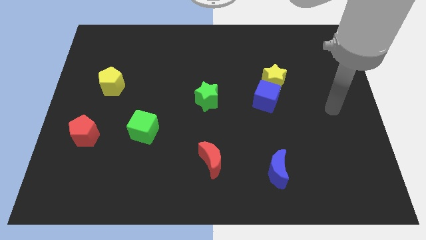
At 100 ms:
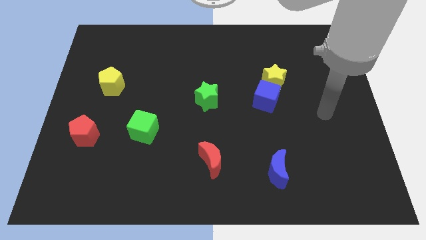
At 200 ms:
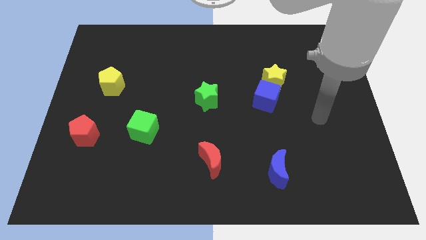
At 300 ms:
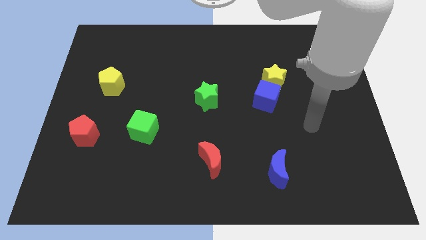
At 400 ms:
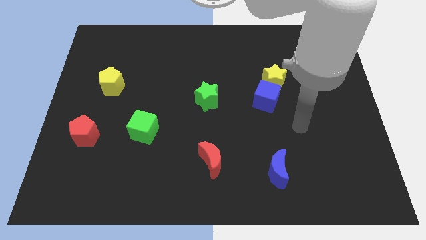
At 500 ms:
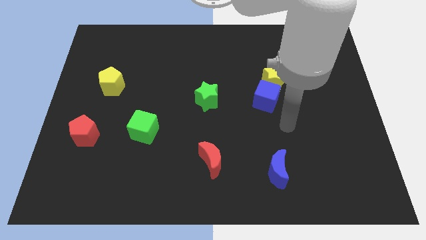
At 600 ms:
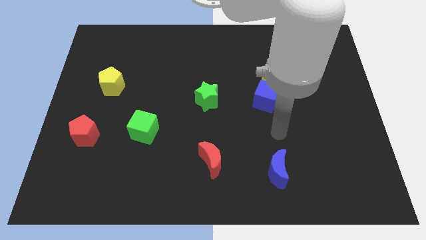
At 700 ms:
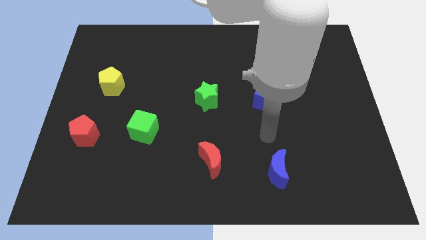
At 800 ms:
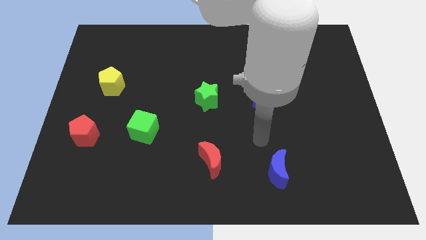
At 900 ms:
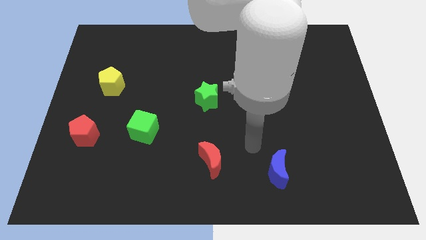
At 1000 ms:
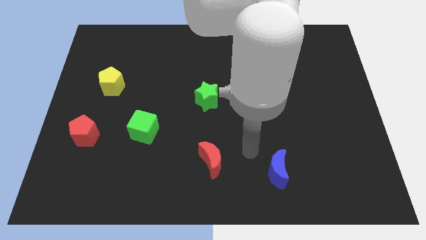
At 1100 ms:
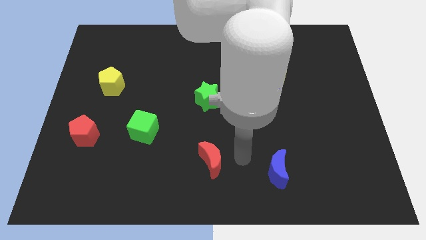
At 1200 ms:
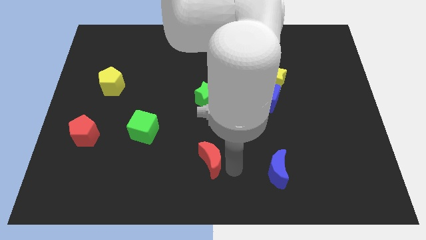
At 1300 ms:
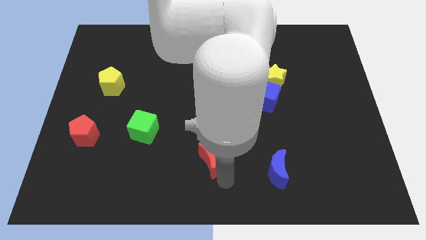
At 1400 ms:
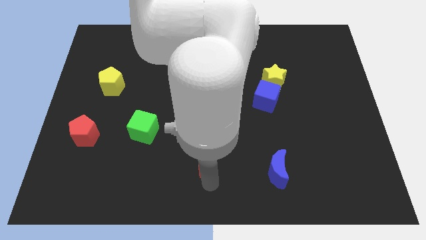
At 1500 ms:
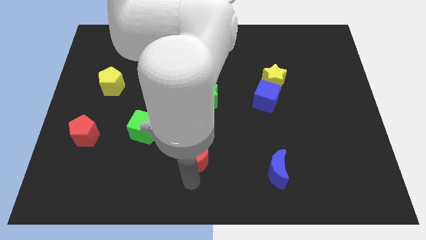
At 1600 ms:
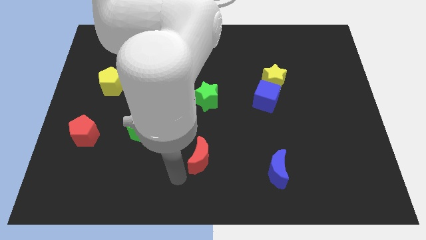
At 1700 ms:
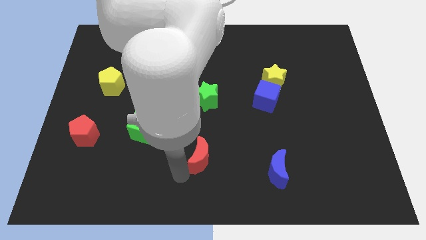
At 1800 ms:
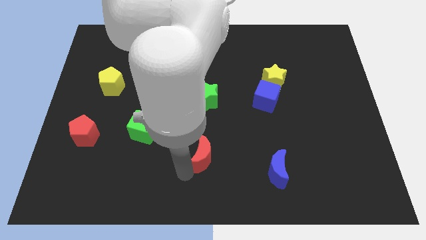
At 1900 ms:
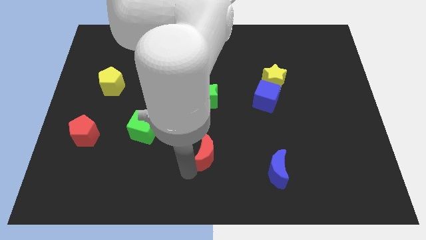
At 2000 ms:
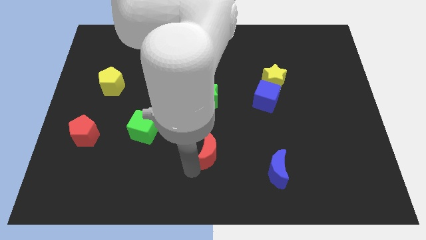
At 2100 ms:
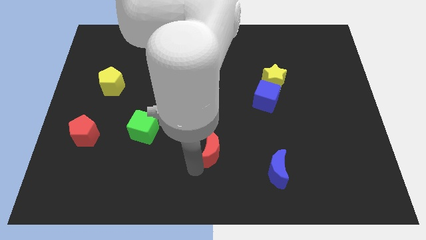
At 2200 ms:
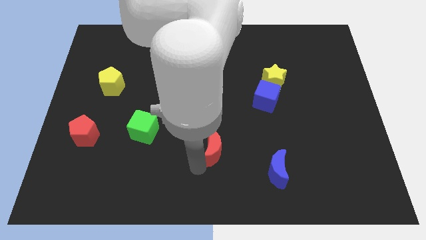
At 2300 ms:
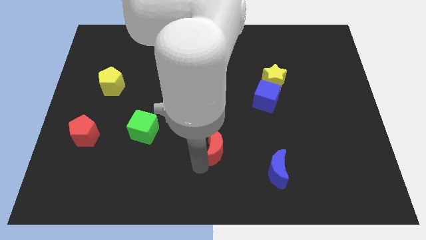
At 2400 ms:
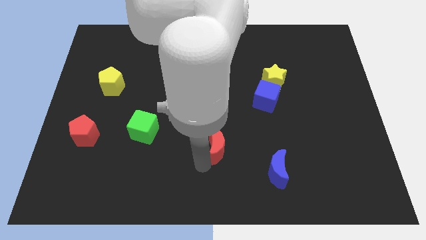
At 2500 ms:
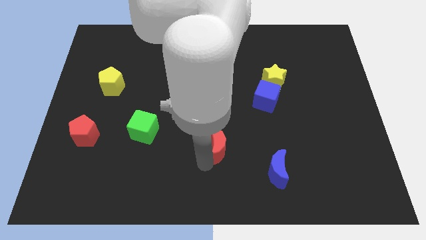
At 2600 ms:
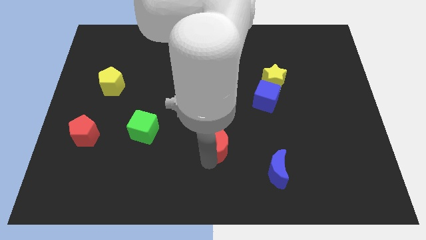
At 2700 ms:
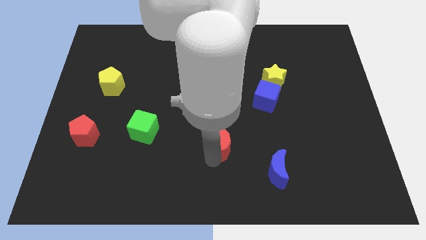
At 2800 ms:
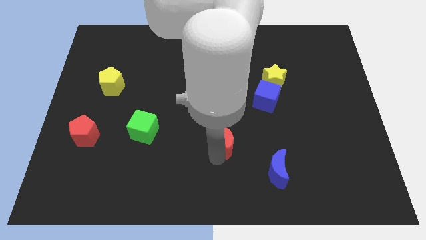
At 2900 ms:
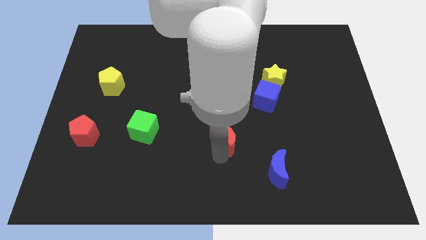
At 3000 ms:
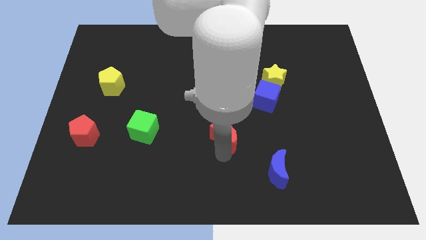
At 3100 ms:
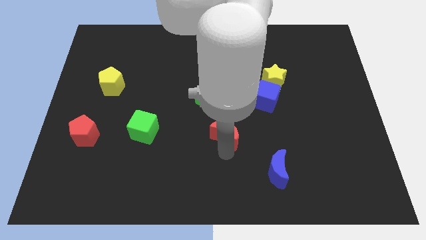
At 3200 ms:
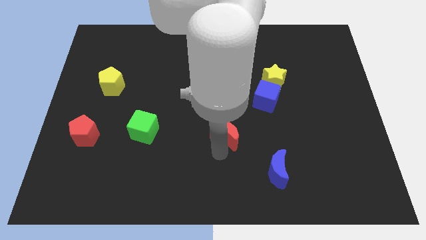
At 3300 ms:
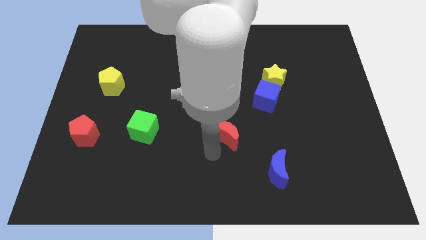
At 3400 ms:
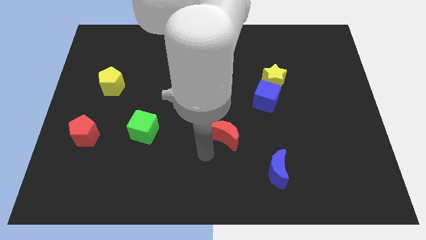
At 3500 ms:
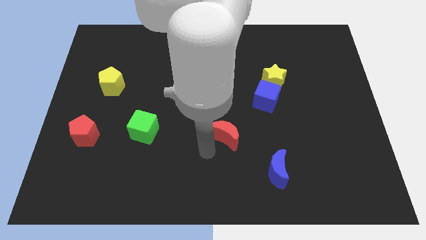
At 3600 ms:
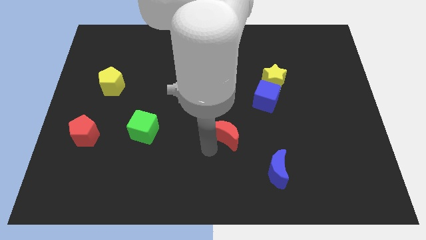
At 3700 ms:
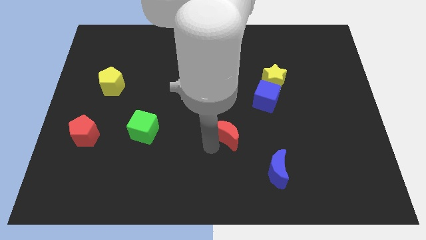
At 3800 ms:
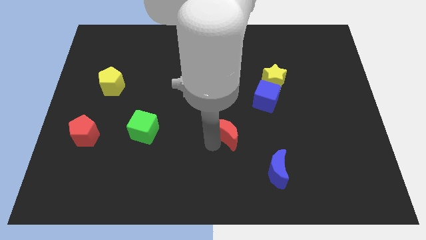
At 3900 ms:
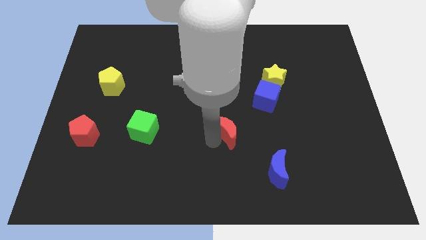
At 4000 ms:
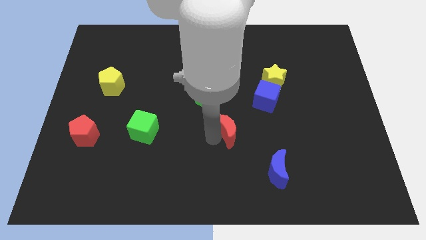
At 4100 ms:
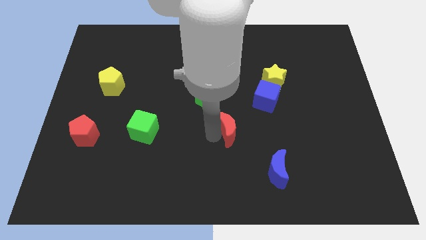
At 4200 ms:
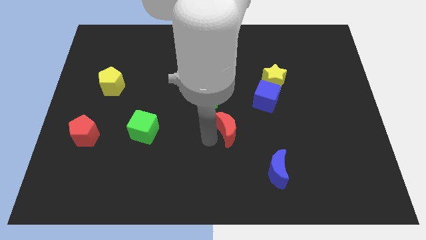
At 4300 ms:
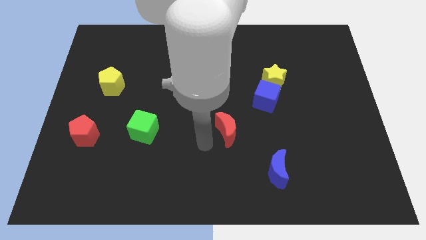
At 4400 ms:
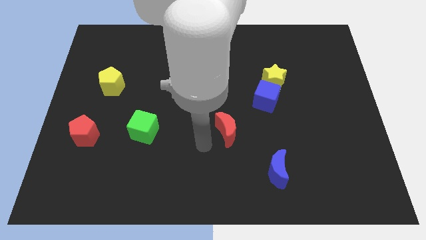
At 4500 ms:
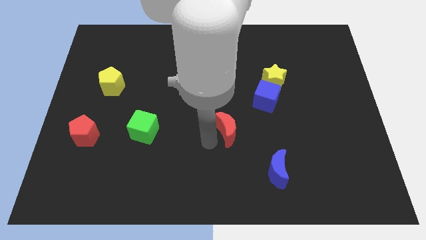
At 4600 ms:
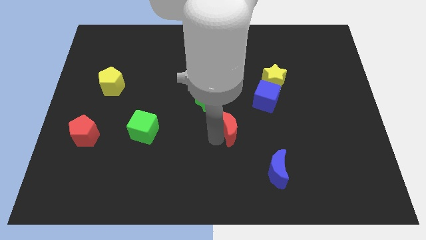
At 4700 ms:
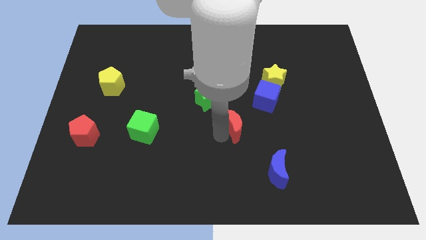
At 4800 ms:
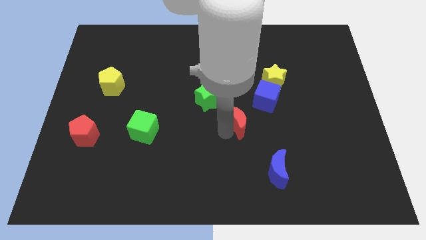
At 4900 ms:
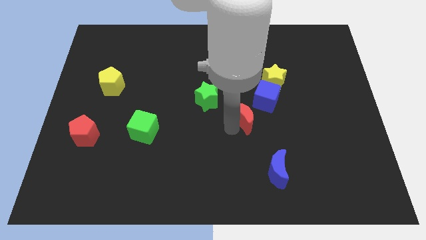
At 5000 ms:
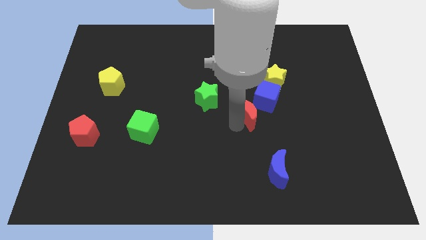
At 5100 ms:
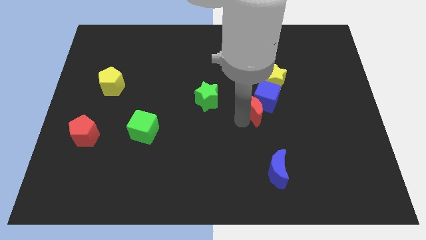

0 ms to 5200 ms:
slide the red moon towards the blue cube

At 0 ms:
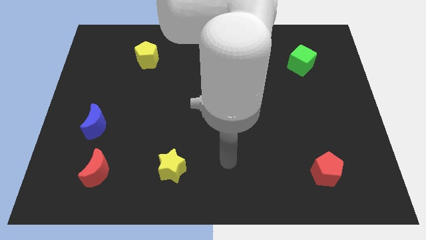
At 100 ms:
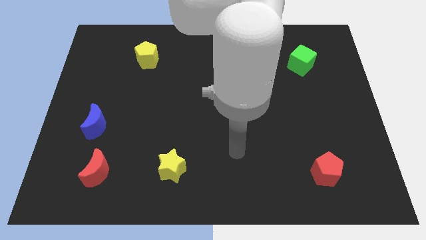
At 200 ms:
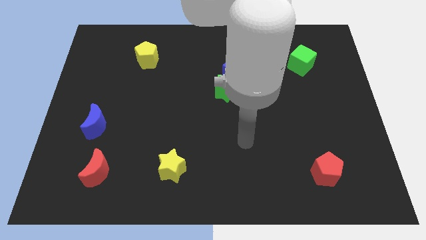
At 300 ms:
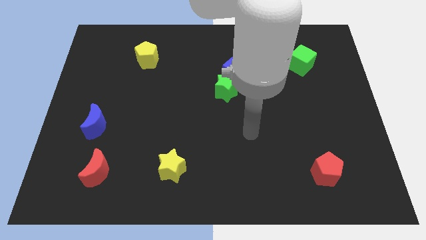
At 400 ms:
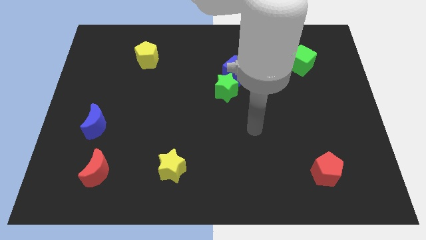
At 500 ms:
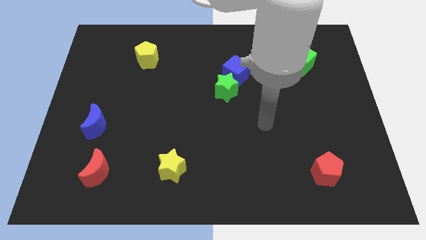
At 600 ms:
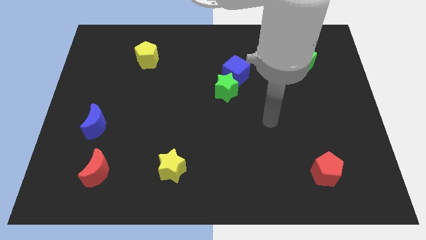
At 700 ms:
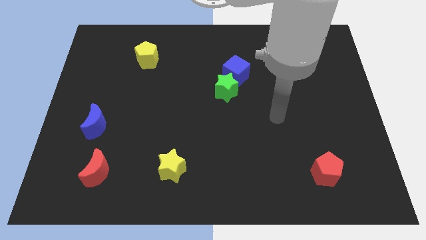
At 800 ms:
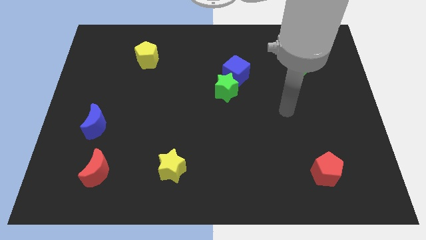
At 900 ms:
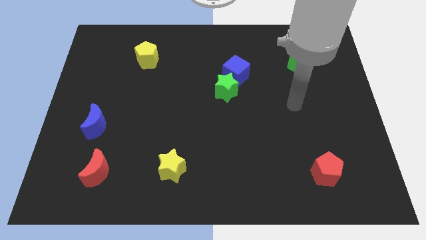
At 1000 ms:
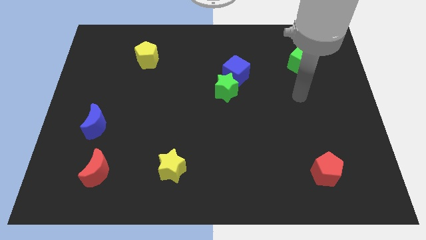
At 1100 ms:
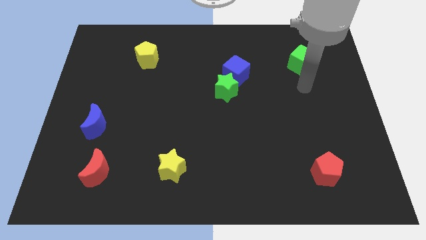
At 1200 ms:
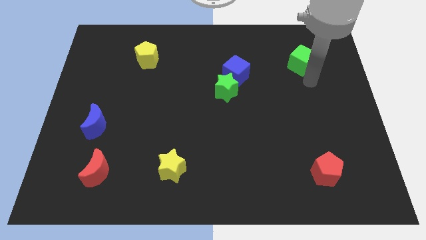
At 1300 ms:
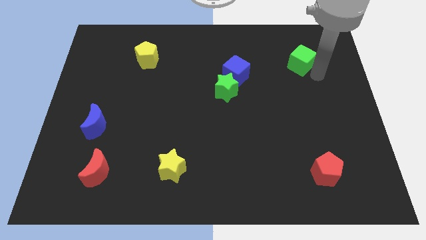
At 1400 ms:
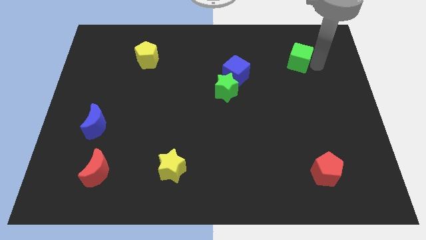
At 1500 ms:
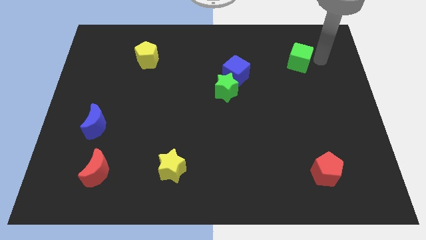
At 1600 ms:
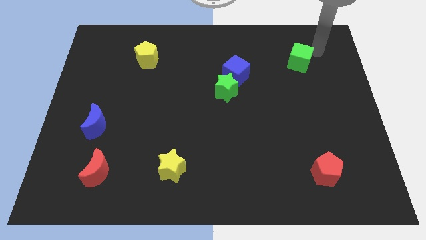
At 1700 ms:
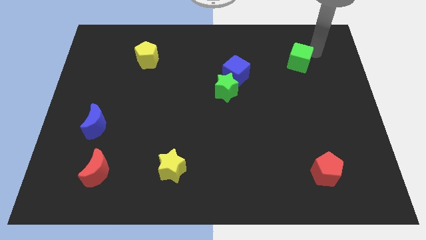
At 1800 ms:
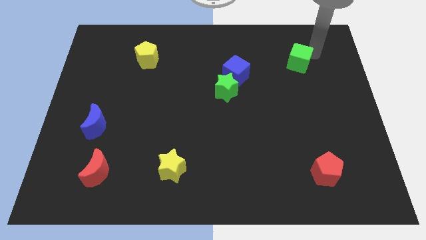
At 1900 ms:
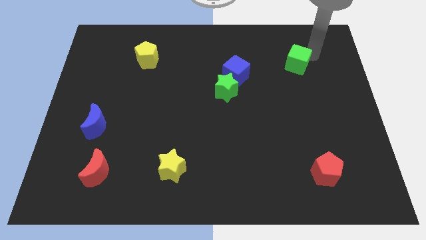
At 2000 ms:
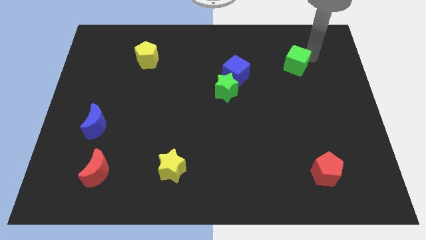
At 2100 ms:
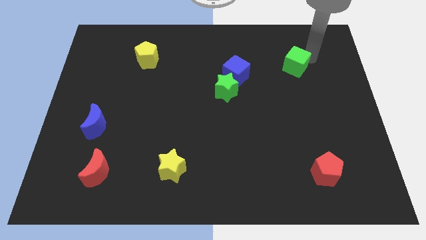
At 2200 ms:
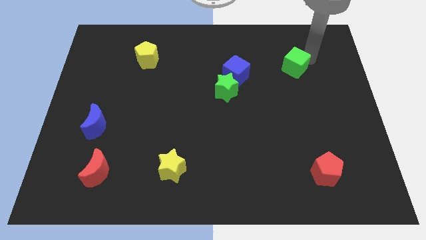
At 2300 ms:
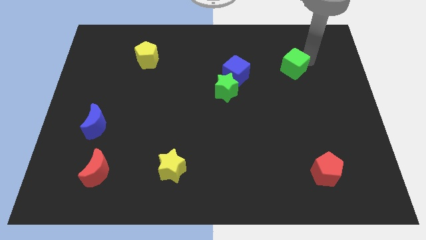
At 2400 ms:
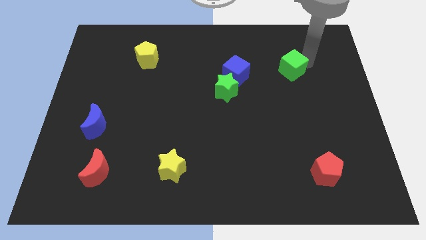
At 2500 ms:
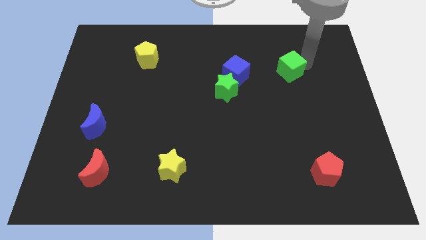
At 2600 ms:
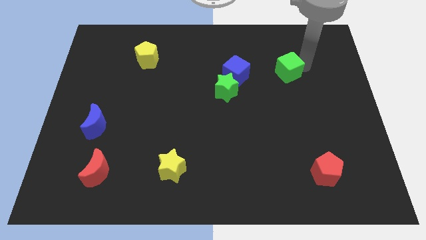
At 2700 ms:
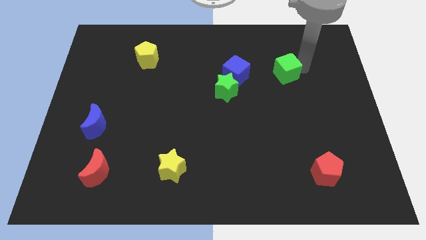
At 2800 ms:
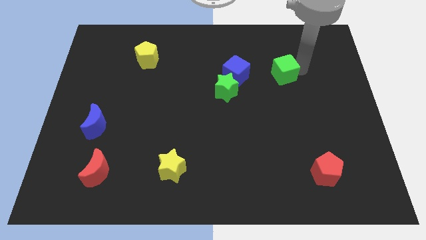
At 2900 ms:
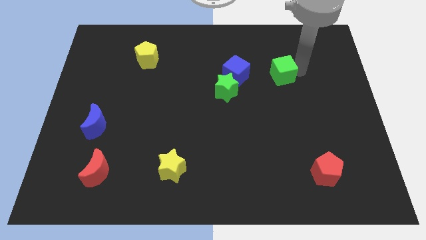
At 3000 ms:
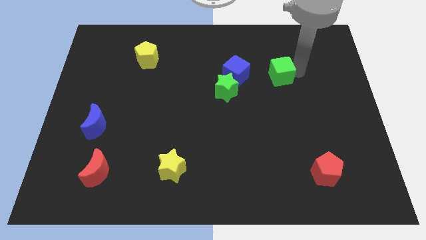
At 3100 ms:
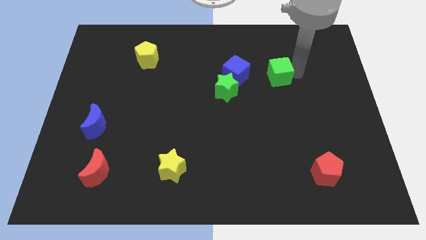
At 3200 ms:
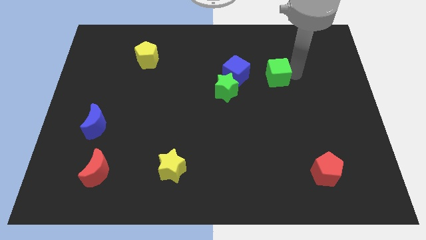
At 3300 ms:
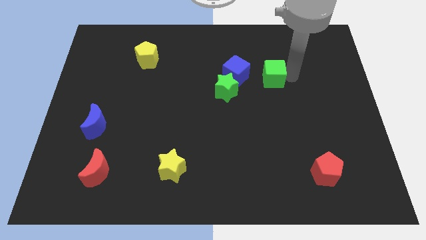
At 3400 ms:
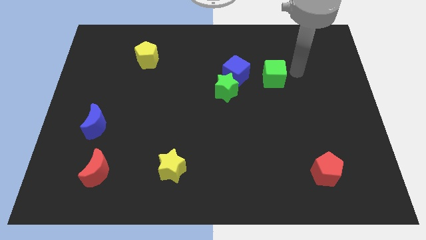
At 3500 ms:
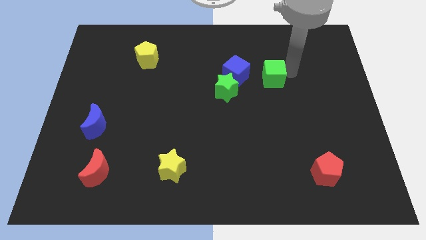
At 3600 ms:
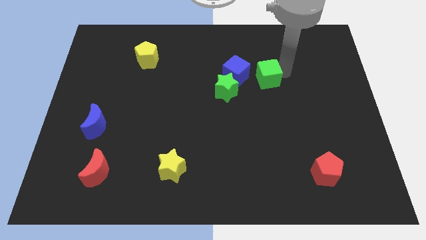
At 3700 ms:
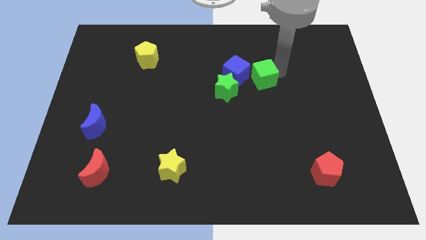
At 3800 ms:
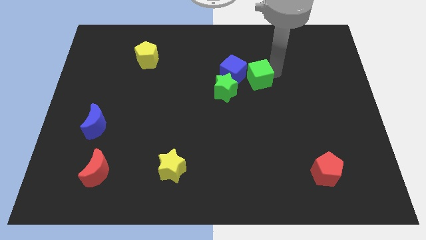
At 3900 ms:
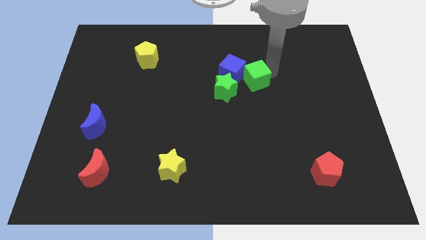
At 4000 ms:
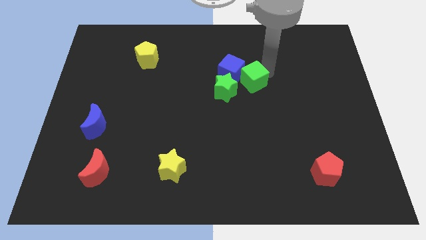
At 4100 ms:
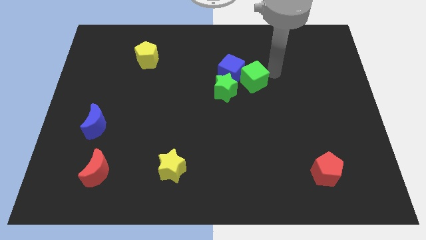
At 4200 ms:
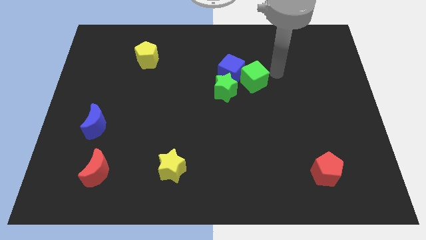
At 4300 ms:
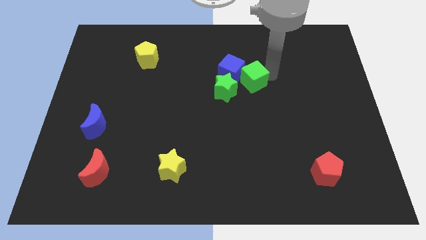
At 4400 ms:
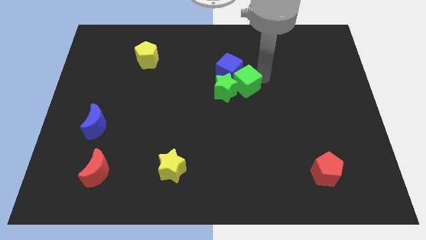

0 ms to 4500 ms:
push the green cube close to the green star
